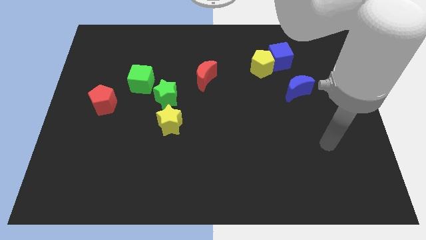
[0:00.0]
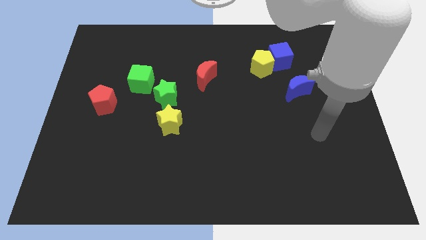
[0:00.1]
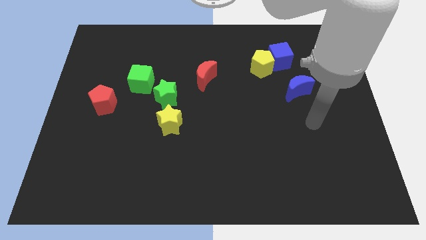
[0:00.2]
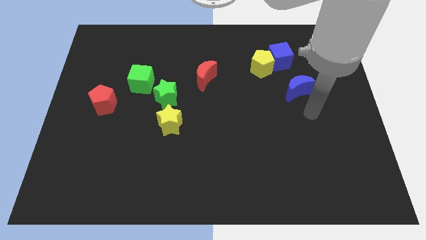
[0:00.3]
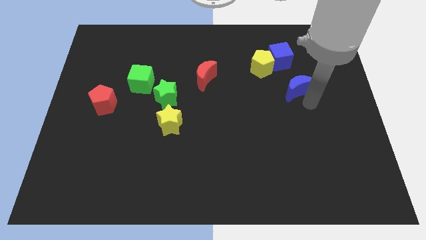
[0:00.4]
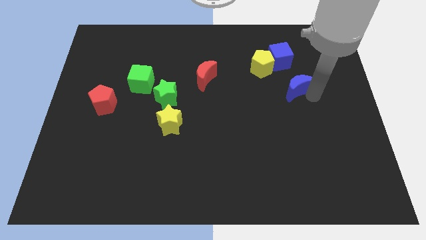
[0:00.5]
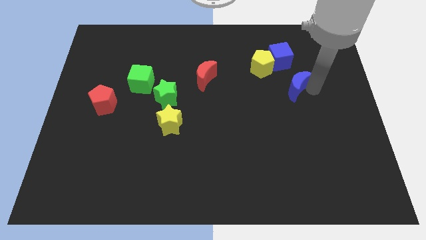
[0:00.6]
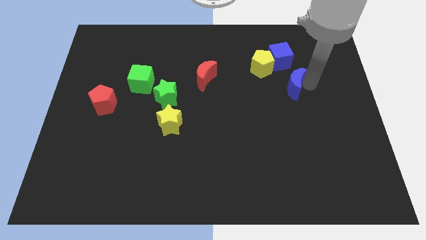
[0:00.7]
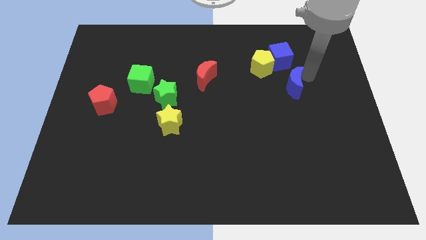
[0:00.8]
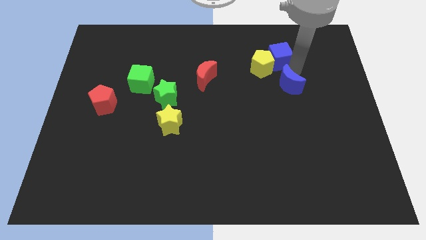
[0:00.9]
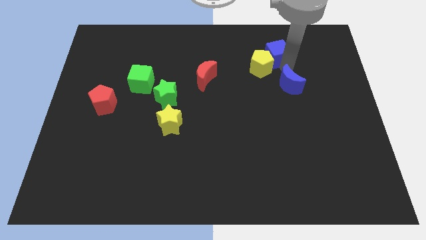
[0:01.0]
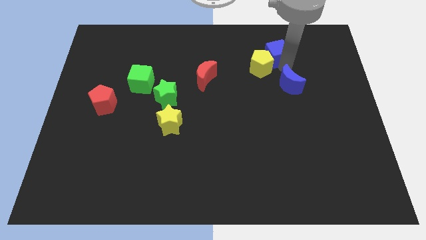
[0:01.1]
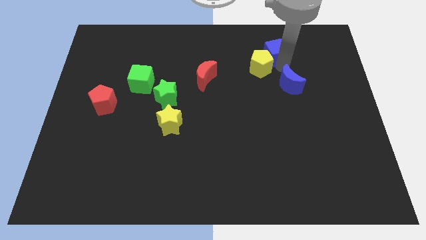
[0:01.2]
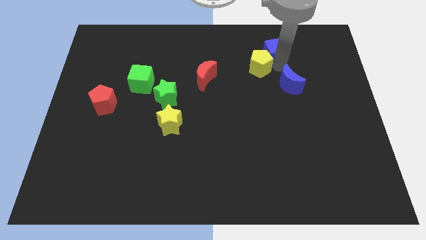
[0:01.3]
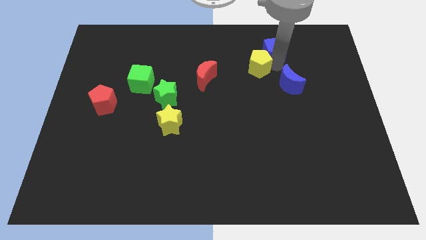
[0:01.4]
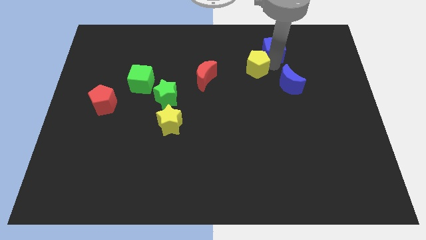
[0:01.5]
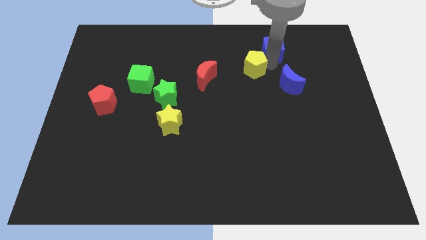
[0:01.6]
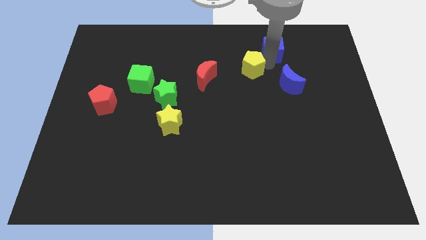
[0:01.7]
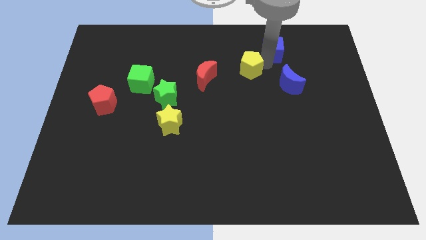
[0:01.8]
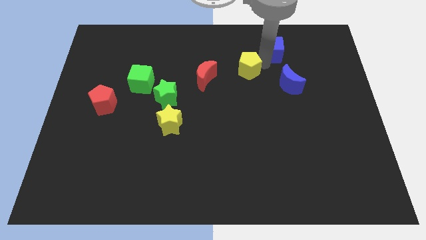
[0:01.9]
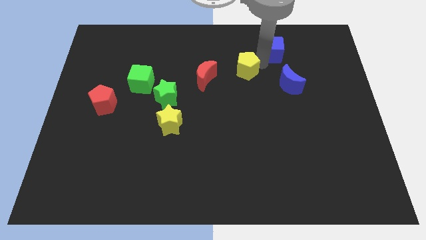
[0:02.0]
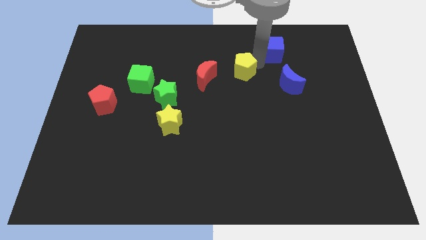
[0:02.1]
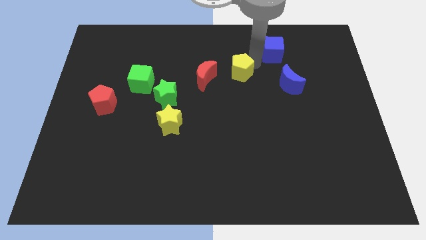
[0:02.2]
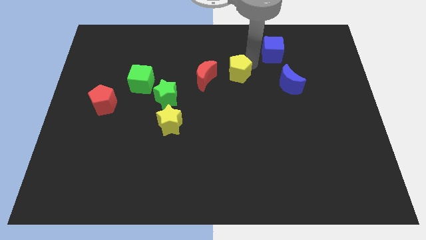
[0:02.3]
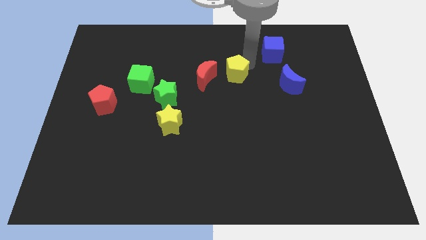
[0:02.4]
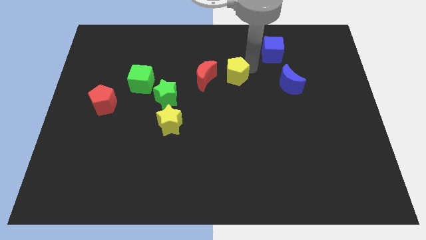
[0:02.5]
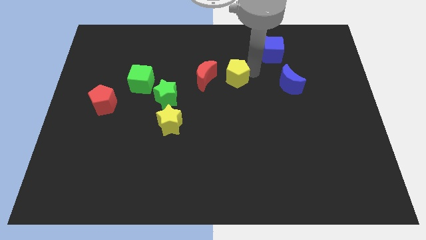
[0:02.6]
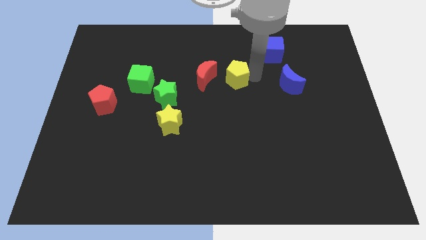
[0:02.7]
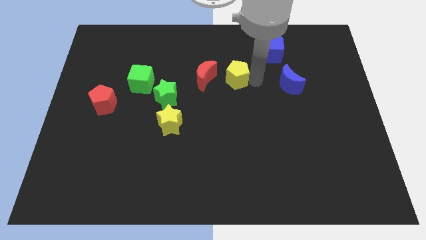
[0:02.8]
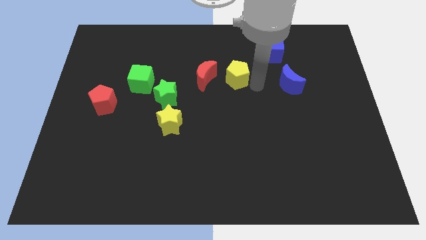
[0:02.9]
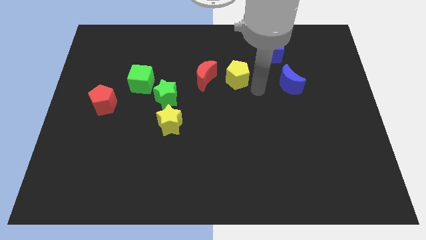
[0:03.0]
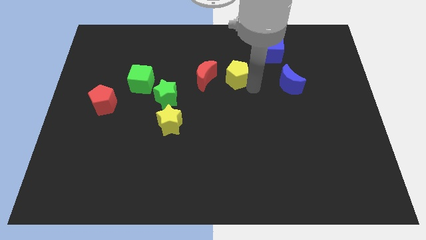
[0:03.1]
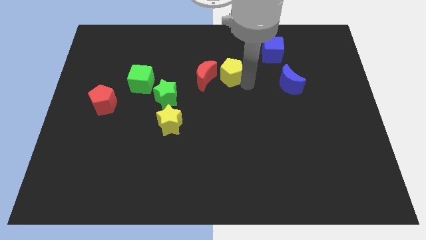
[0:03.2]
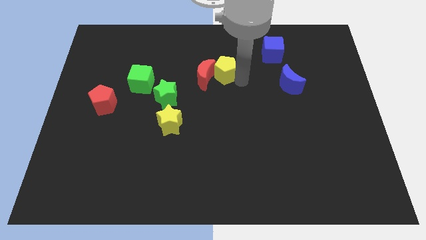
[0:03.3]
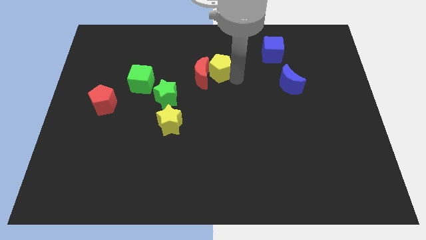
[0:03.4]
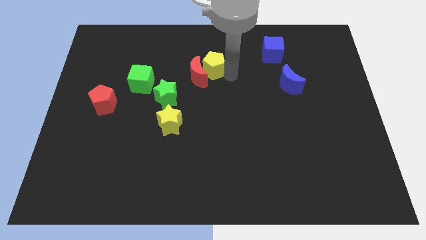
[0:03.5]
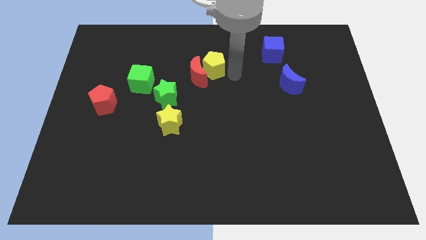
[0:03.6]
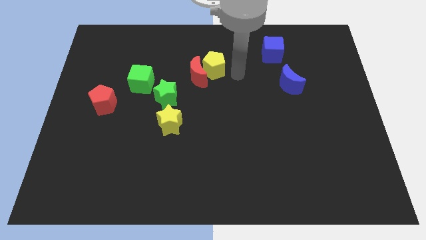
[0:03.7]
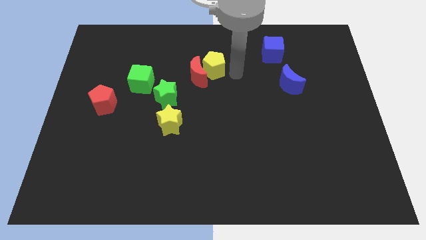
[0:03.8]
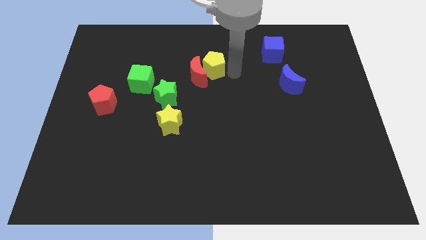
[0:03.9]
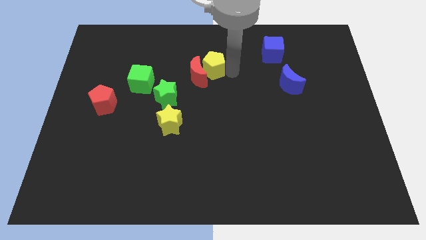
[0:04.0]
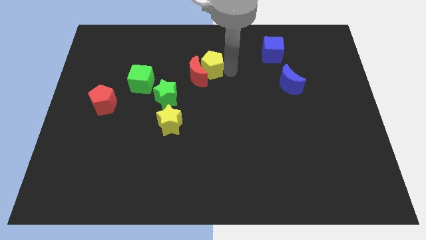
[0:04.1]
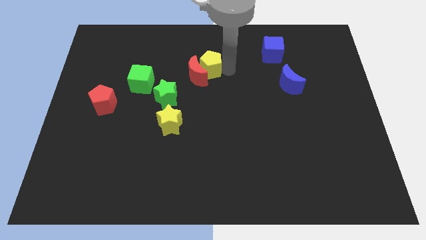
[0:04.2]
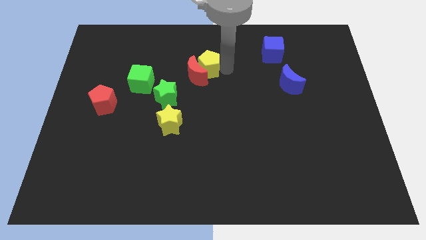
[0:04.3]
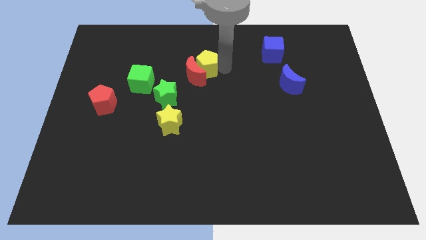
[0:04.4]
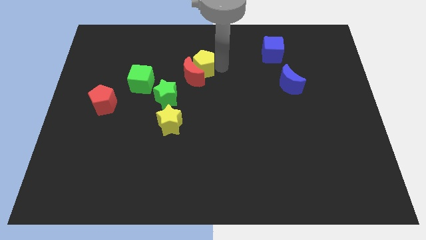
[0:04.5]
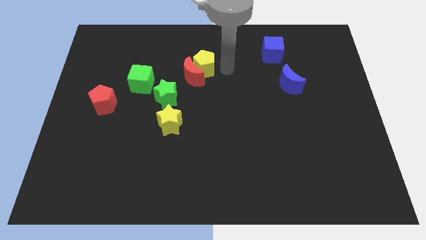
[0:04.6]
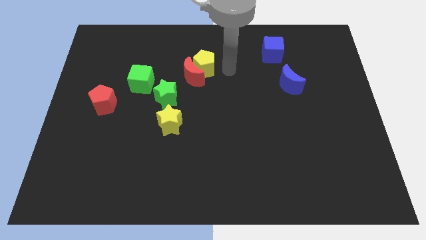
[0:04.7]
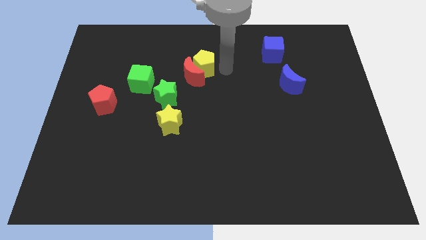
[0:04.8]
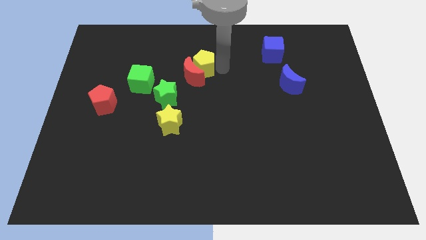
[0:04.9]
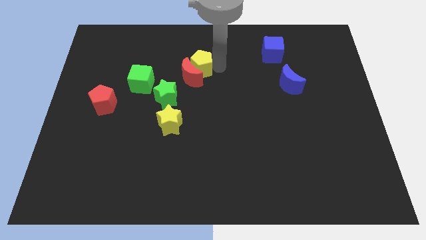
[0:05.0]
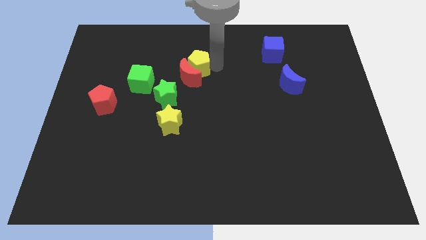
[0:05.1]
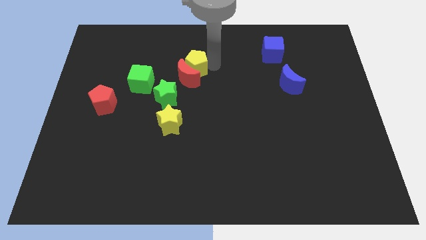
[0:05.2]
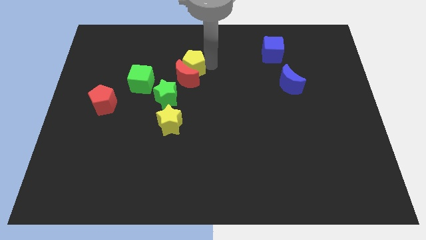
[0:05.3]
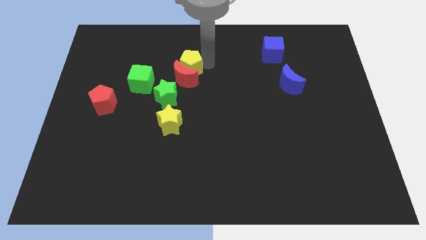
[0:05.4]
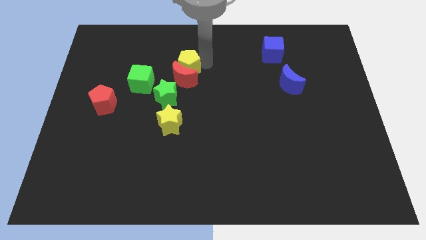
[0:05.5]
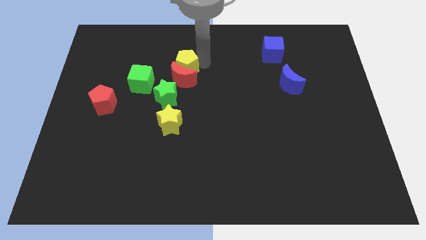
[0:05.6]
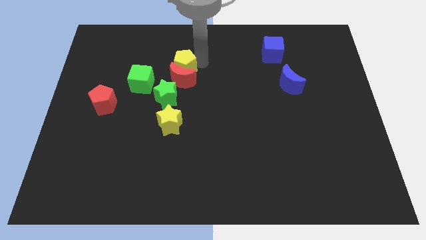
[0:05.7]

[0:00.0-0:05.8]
move the yellow pentagon left

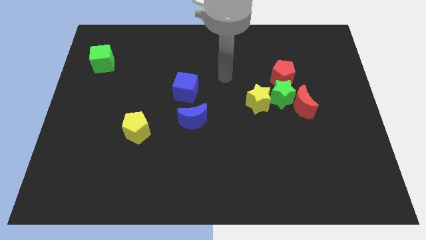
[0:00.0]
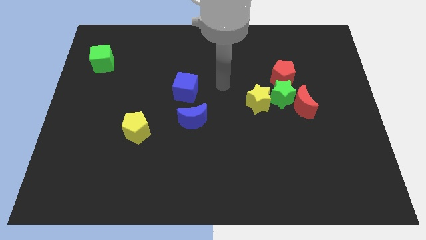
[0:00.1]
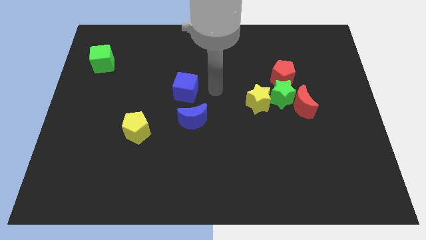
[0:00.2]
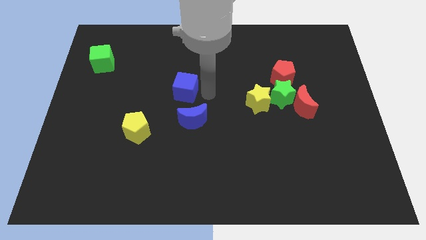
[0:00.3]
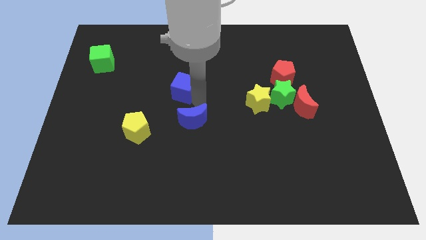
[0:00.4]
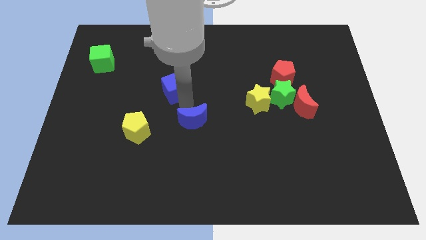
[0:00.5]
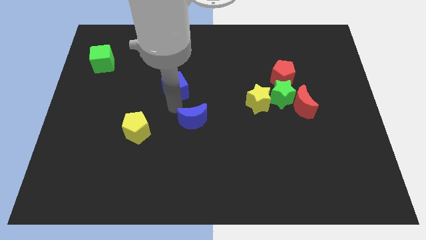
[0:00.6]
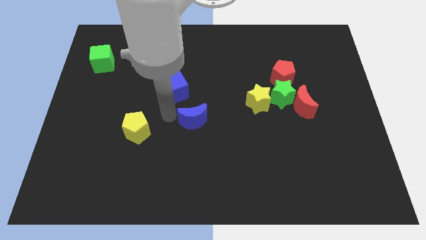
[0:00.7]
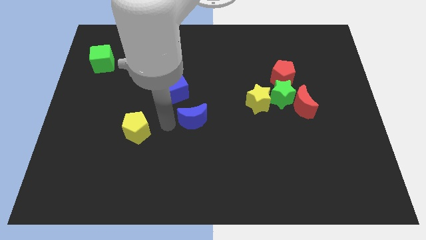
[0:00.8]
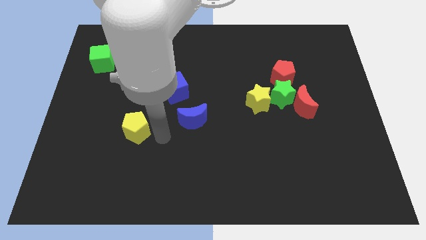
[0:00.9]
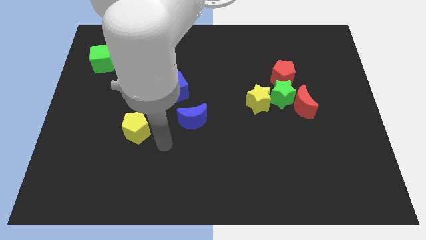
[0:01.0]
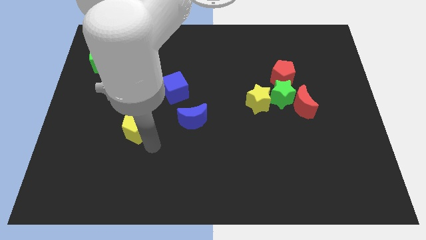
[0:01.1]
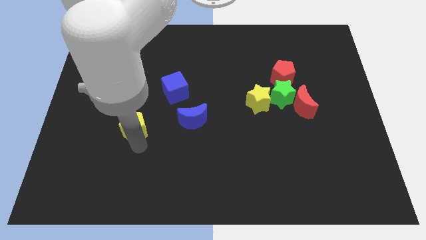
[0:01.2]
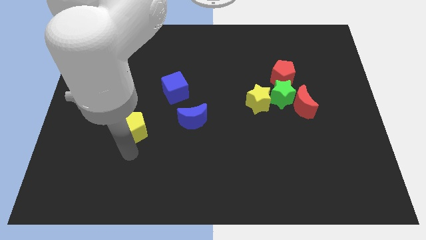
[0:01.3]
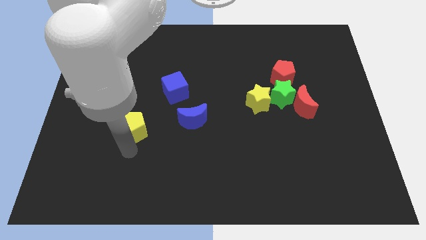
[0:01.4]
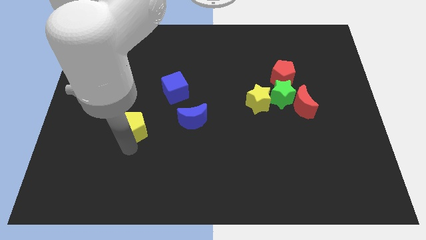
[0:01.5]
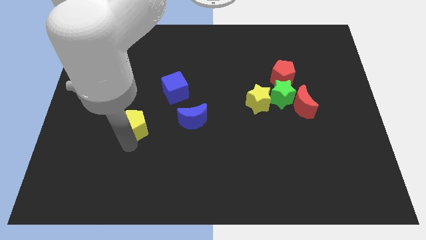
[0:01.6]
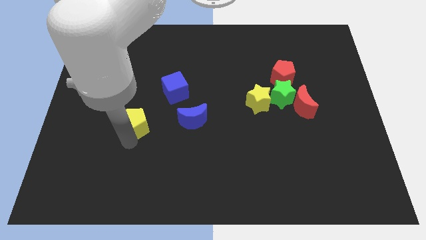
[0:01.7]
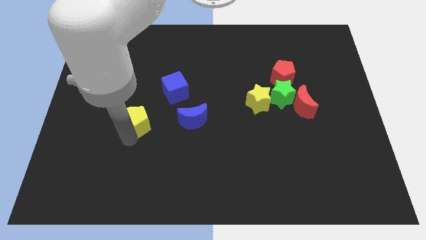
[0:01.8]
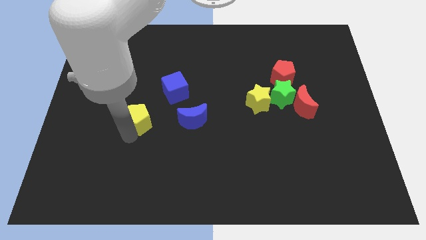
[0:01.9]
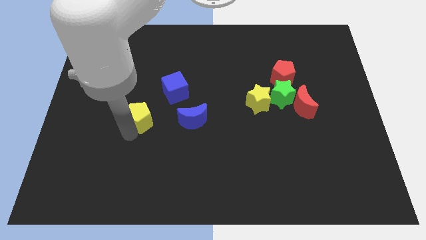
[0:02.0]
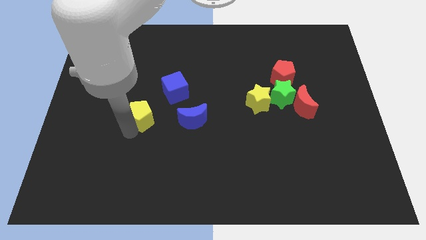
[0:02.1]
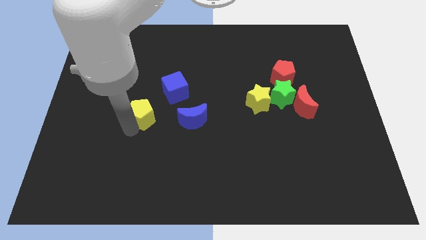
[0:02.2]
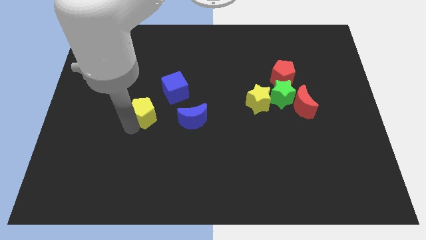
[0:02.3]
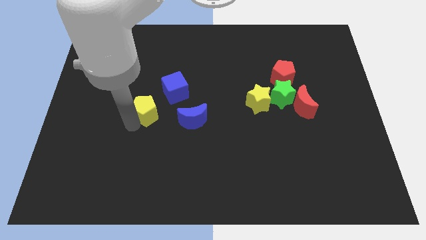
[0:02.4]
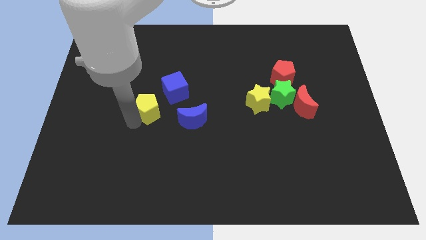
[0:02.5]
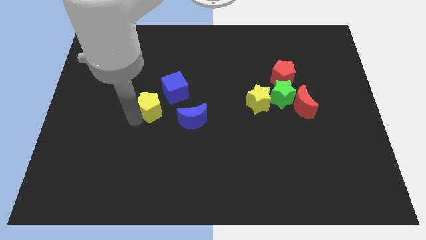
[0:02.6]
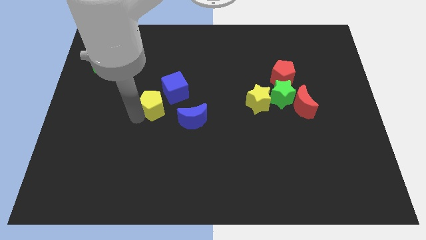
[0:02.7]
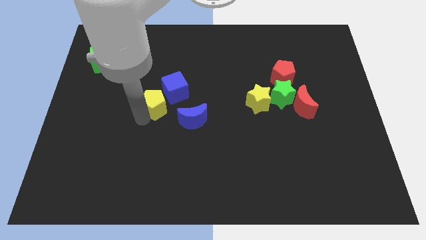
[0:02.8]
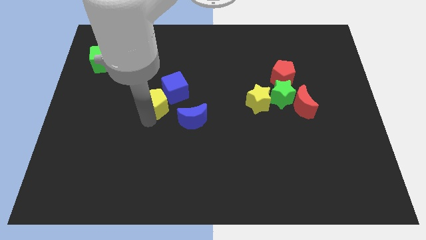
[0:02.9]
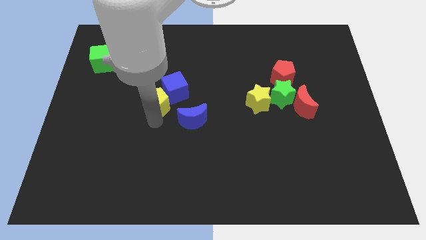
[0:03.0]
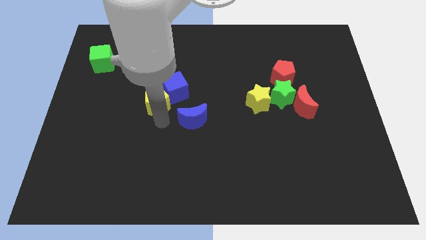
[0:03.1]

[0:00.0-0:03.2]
slide the yellow pentagon upwards somewhat
